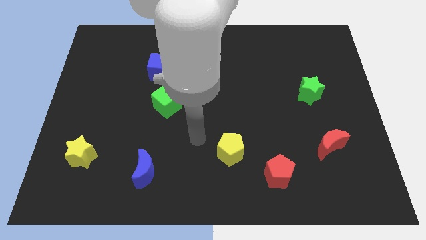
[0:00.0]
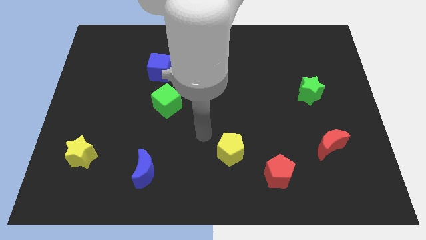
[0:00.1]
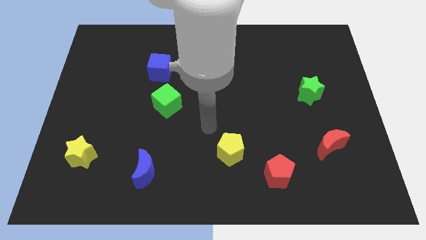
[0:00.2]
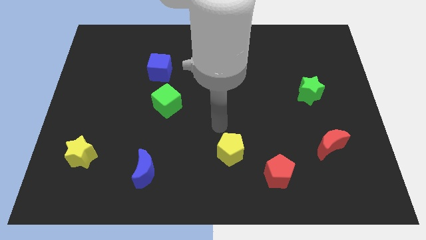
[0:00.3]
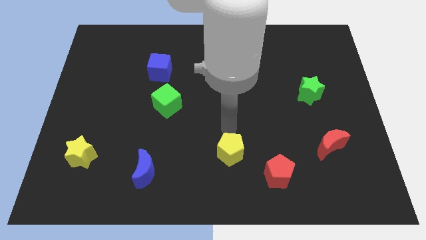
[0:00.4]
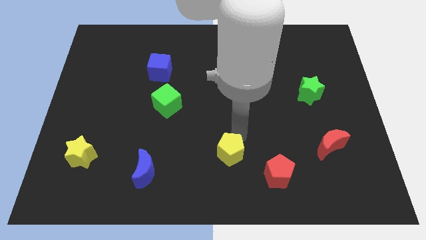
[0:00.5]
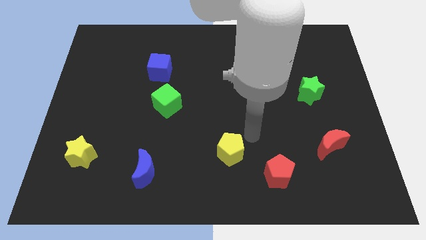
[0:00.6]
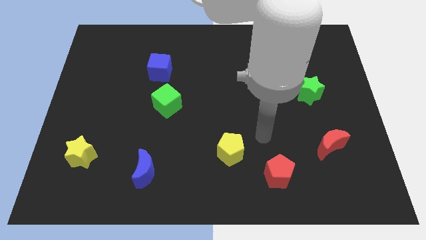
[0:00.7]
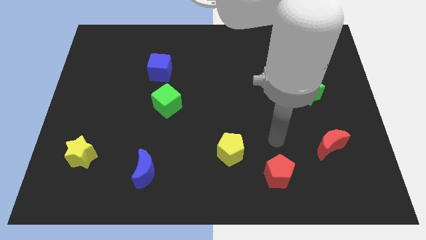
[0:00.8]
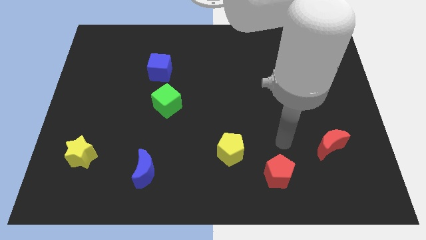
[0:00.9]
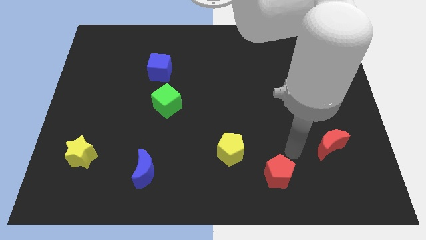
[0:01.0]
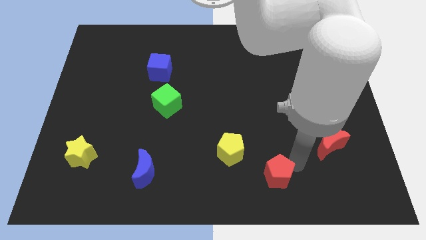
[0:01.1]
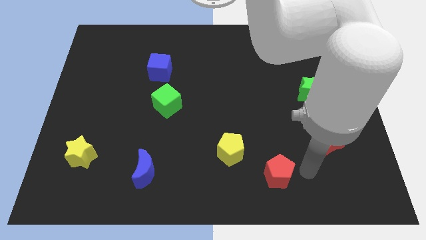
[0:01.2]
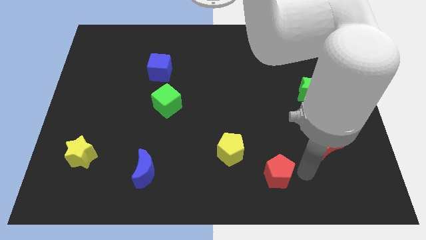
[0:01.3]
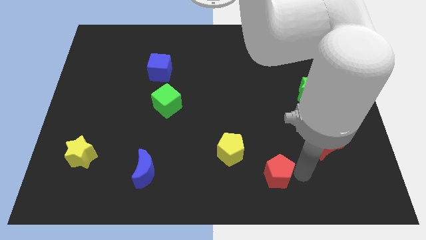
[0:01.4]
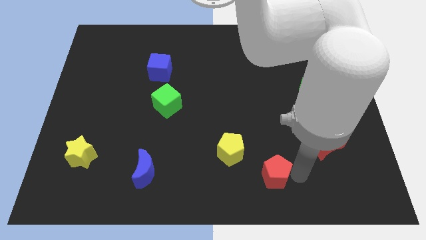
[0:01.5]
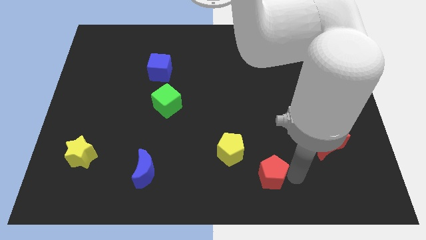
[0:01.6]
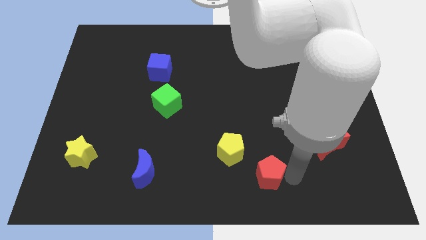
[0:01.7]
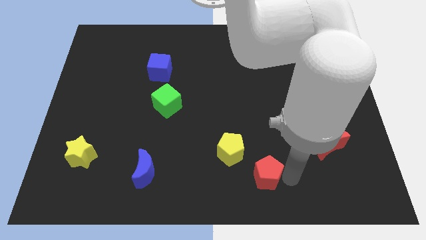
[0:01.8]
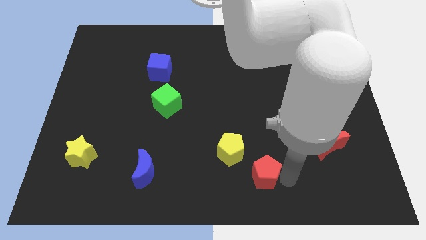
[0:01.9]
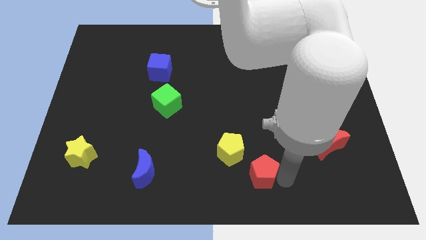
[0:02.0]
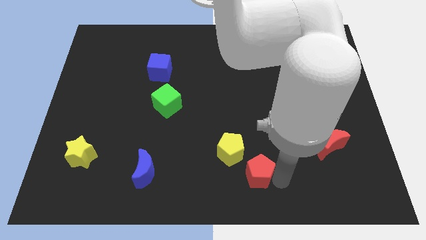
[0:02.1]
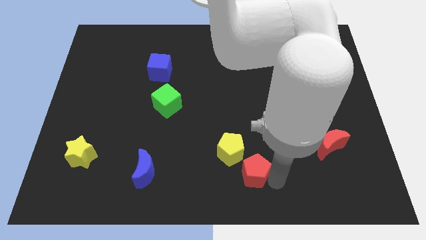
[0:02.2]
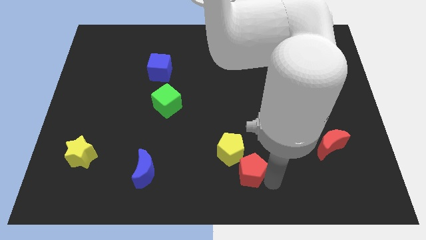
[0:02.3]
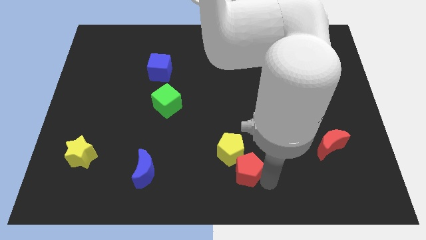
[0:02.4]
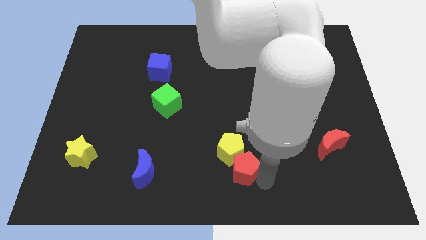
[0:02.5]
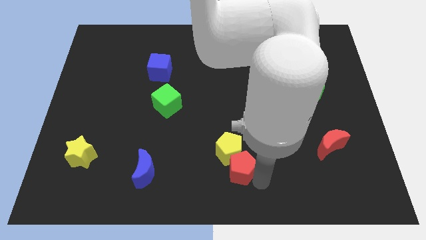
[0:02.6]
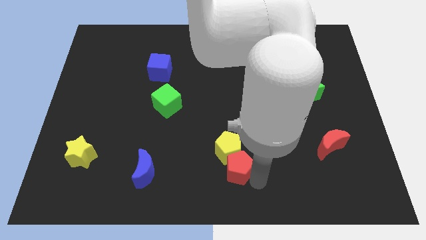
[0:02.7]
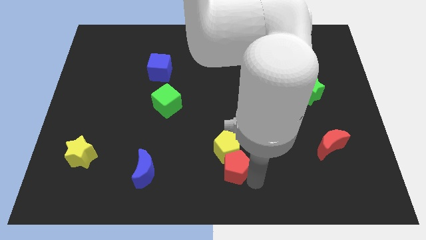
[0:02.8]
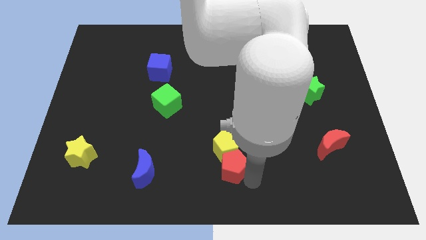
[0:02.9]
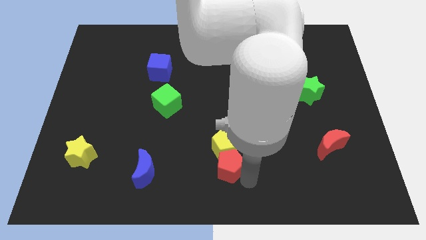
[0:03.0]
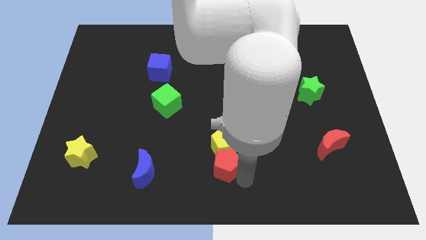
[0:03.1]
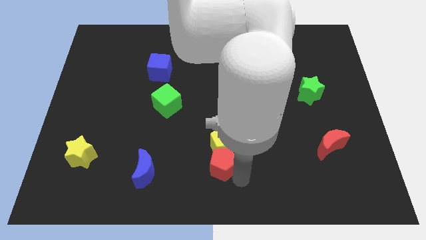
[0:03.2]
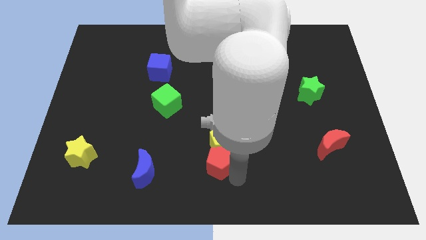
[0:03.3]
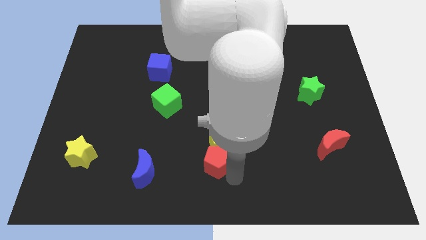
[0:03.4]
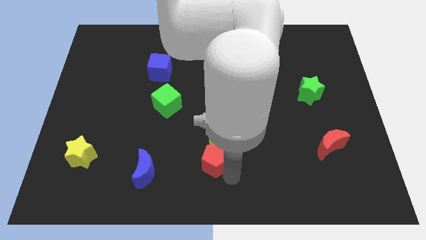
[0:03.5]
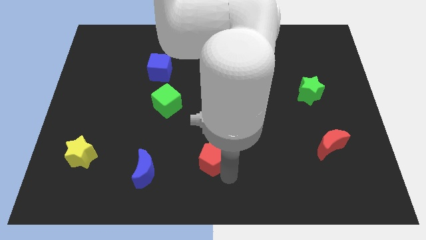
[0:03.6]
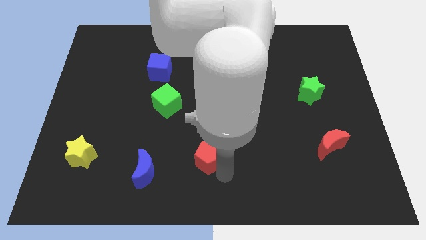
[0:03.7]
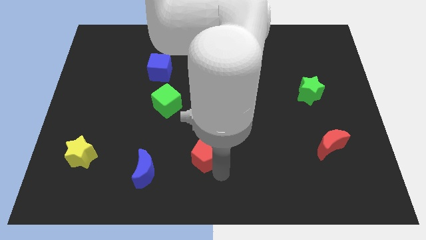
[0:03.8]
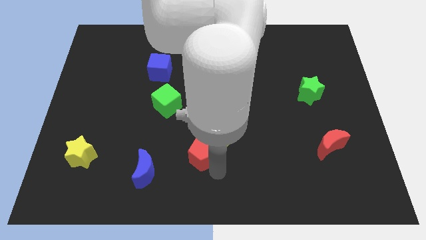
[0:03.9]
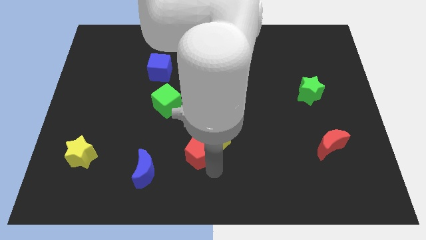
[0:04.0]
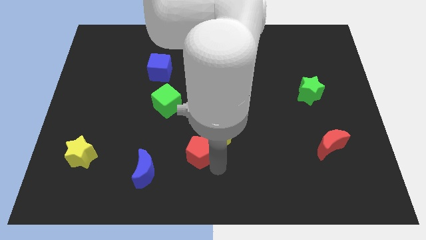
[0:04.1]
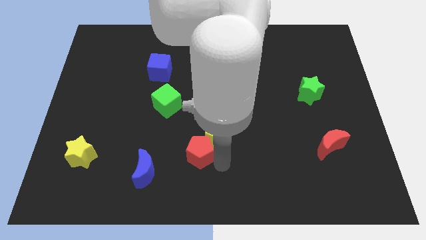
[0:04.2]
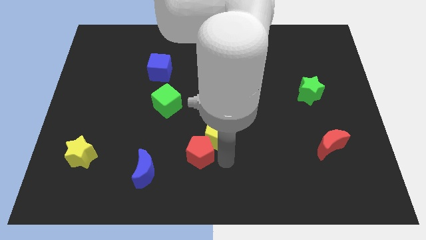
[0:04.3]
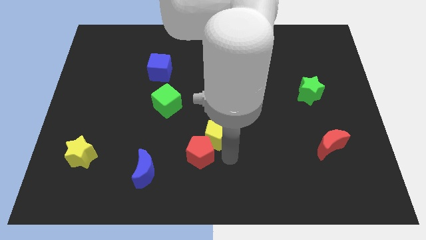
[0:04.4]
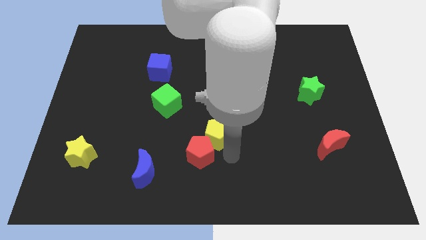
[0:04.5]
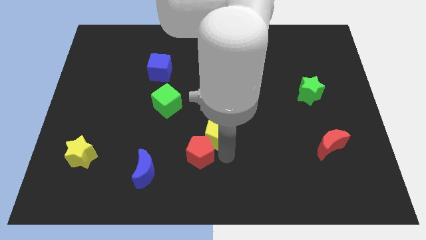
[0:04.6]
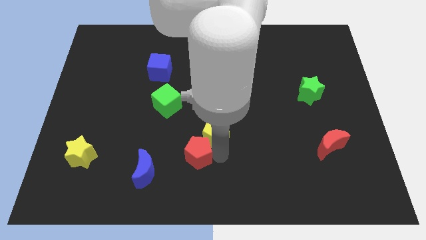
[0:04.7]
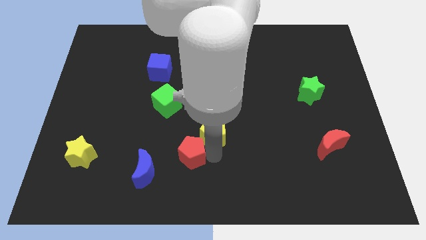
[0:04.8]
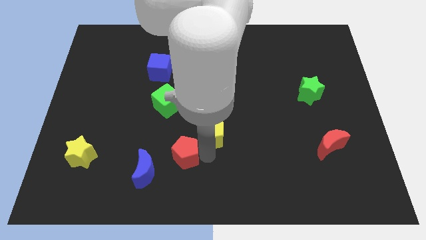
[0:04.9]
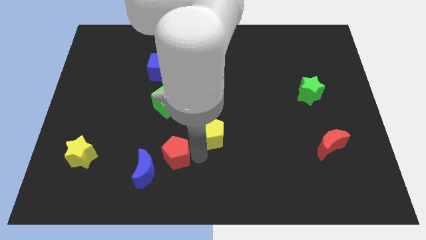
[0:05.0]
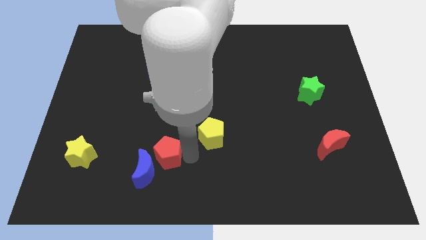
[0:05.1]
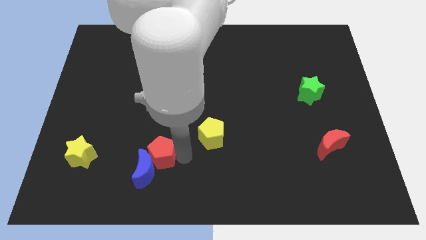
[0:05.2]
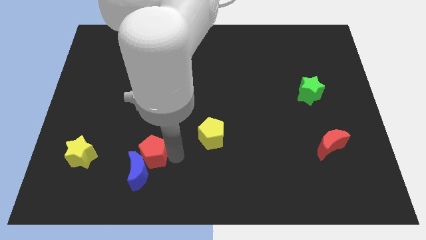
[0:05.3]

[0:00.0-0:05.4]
move the red pentagon right of the yellow star

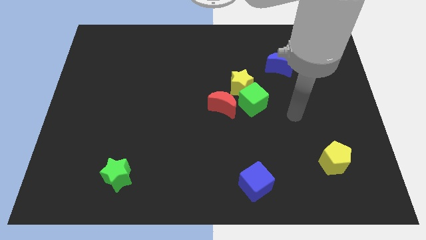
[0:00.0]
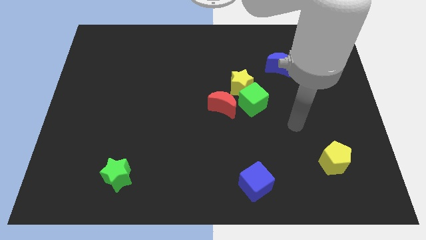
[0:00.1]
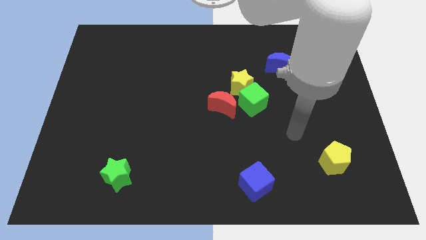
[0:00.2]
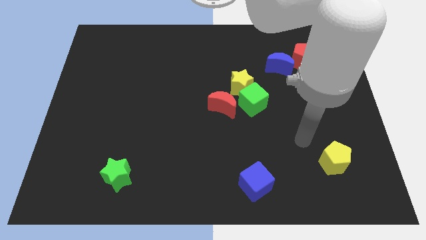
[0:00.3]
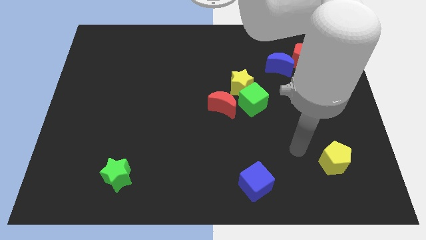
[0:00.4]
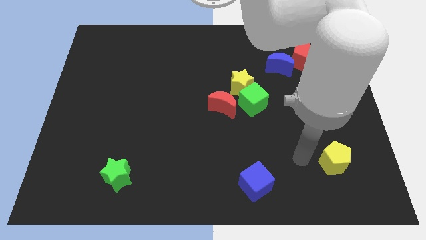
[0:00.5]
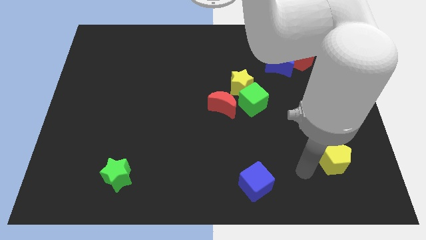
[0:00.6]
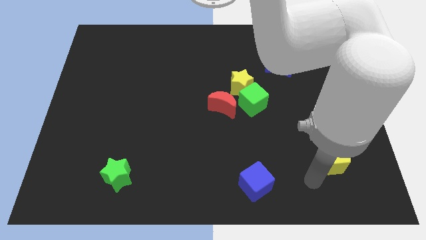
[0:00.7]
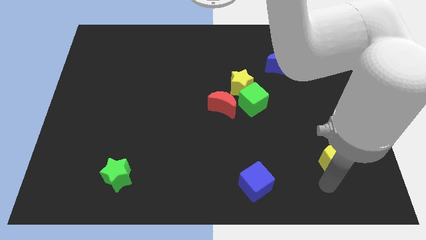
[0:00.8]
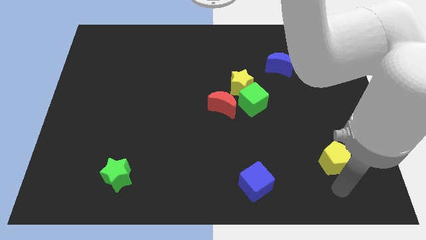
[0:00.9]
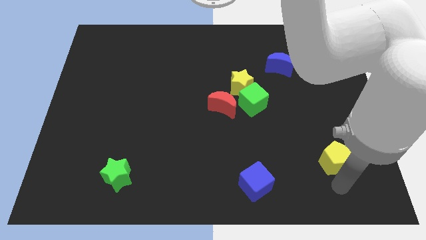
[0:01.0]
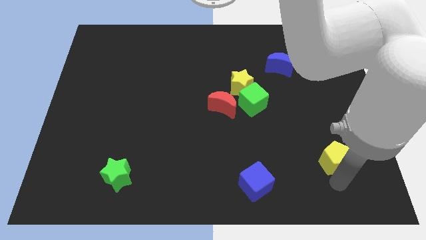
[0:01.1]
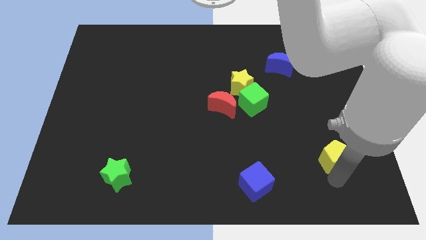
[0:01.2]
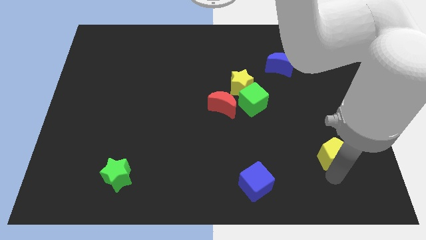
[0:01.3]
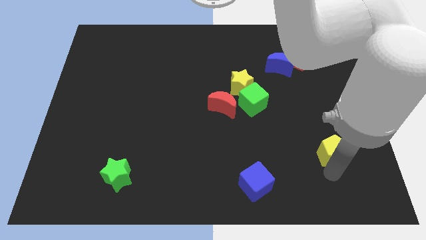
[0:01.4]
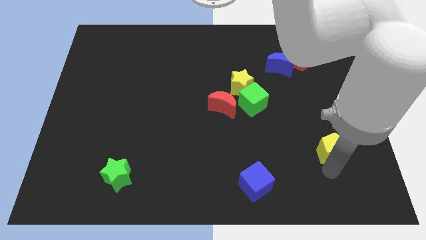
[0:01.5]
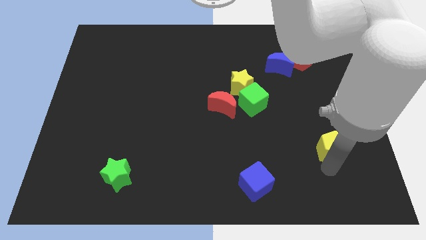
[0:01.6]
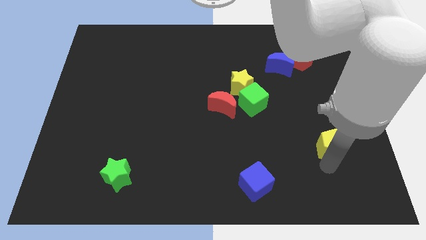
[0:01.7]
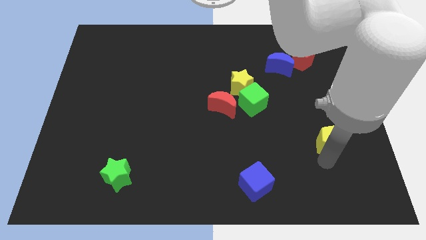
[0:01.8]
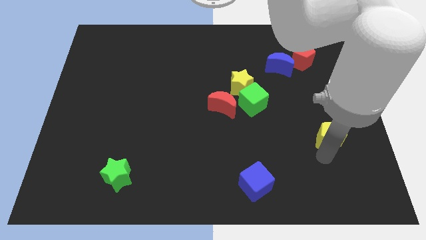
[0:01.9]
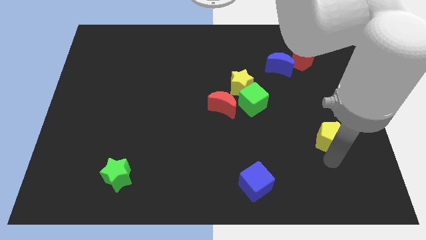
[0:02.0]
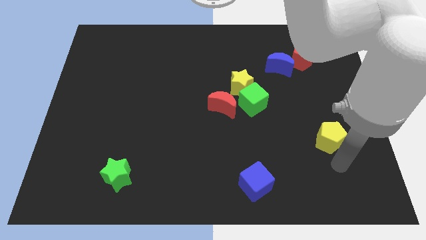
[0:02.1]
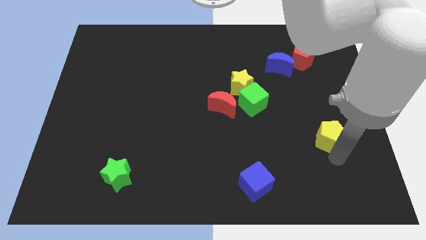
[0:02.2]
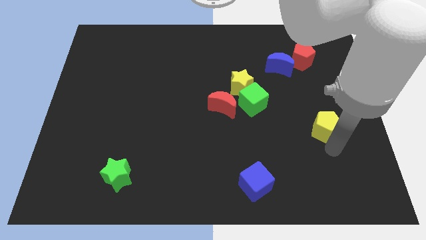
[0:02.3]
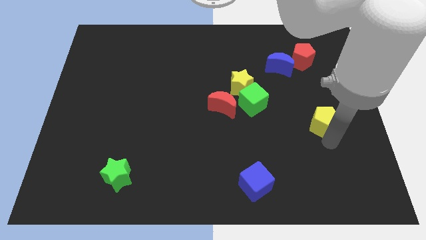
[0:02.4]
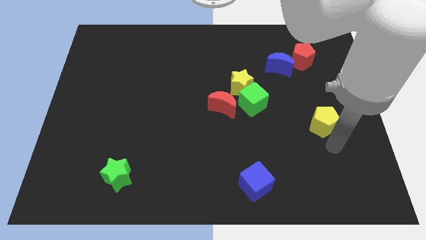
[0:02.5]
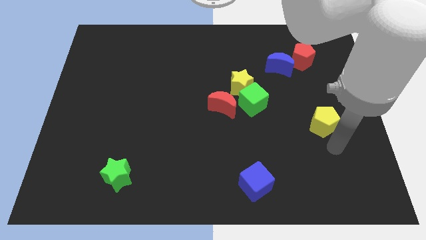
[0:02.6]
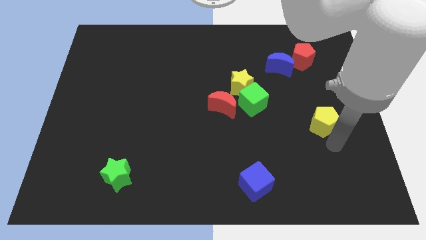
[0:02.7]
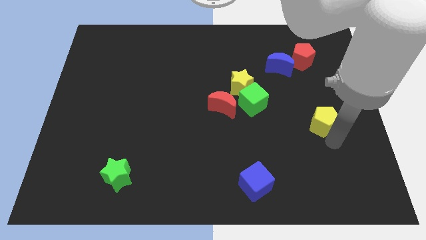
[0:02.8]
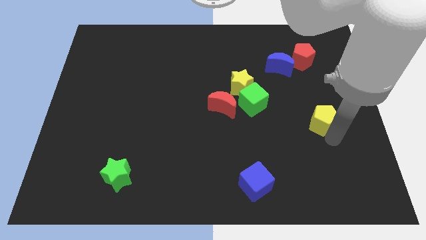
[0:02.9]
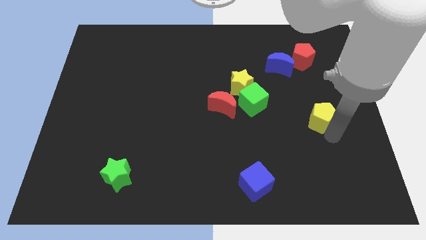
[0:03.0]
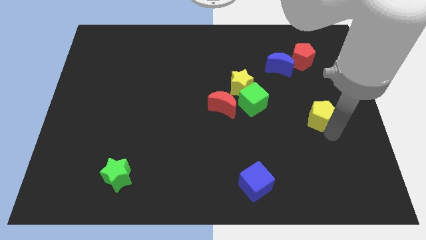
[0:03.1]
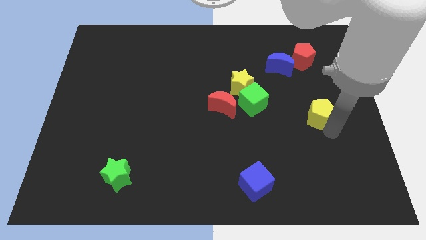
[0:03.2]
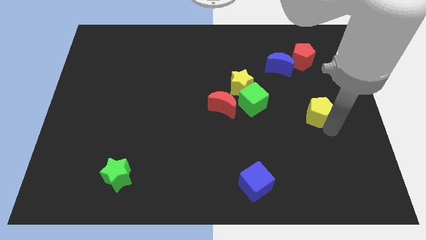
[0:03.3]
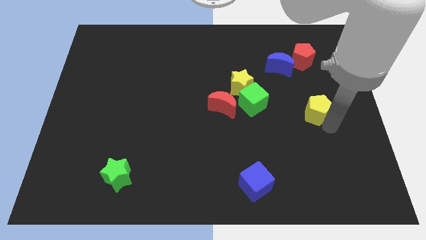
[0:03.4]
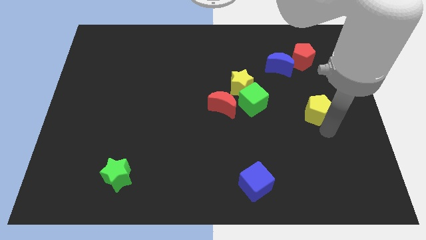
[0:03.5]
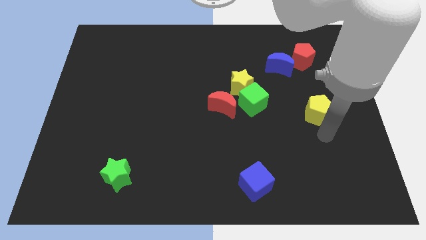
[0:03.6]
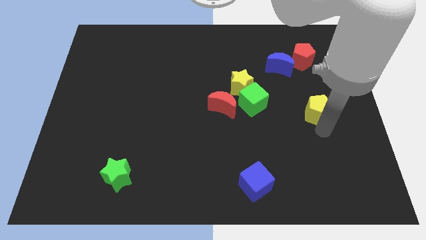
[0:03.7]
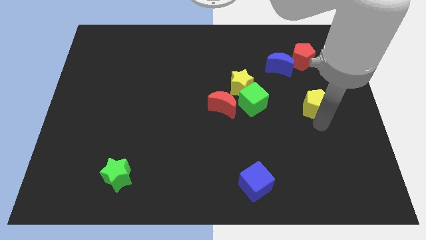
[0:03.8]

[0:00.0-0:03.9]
move the yellow pentagon to the bottom of the red pentagon
